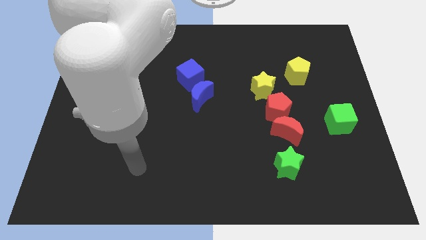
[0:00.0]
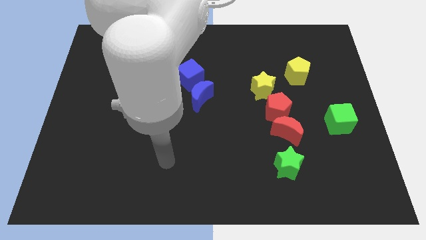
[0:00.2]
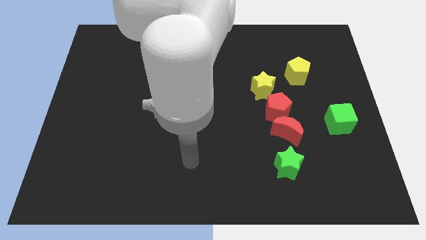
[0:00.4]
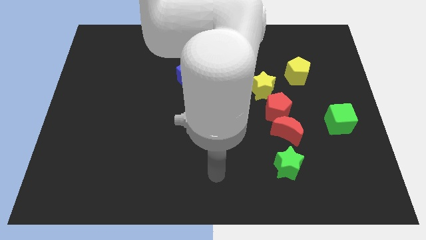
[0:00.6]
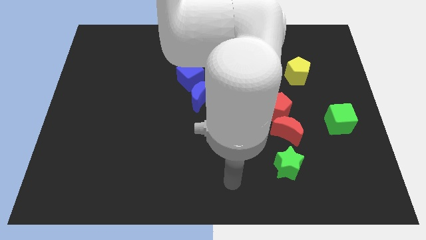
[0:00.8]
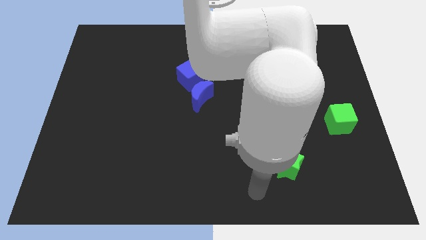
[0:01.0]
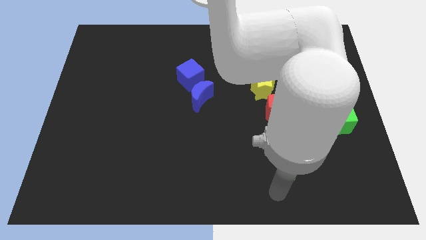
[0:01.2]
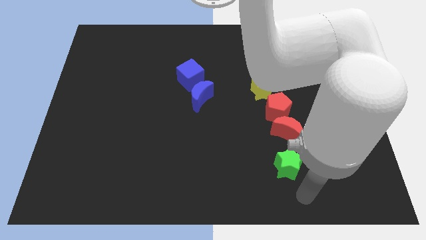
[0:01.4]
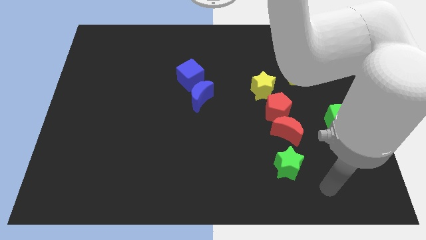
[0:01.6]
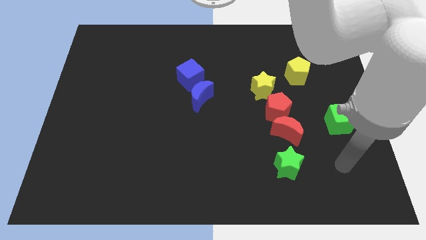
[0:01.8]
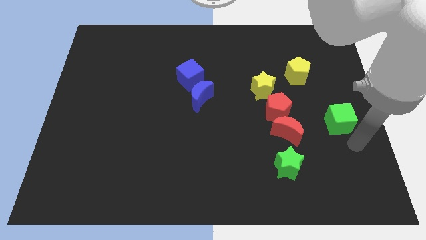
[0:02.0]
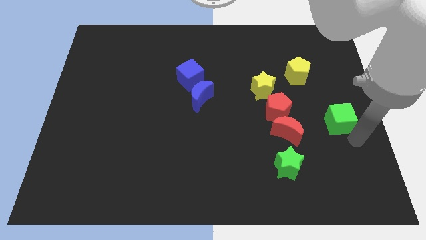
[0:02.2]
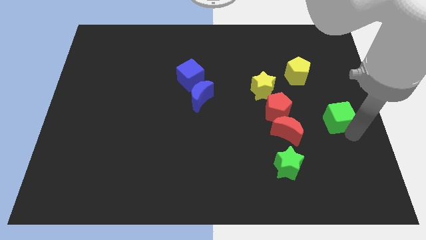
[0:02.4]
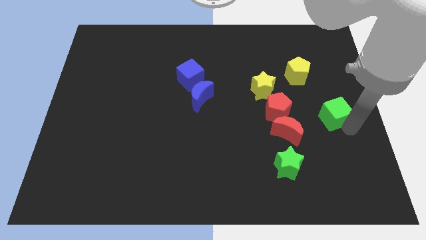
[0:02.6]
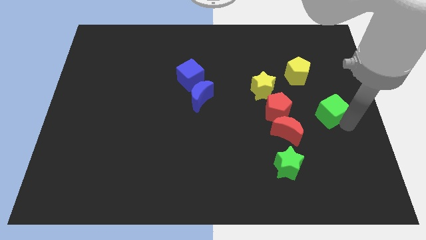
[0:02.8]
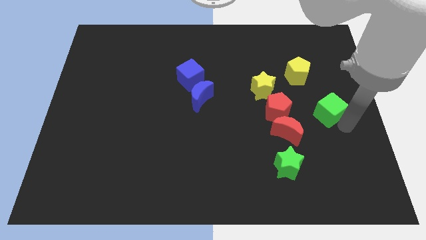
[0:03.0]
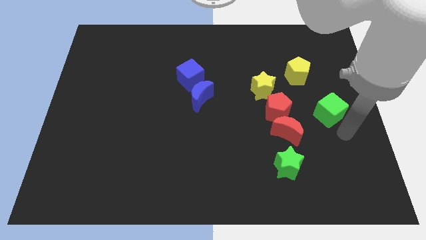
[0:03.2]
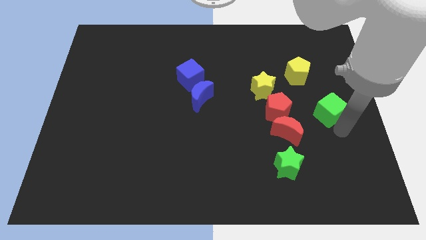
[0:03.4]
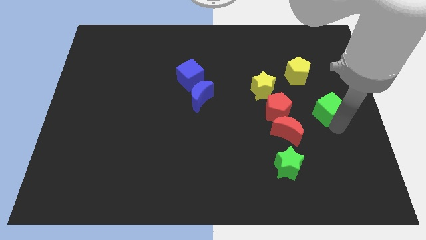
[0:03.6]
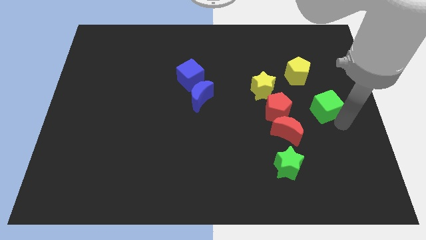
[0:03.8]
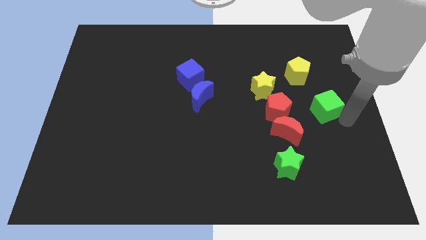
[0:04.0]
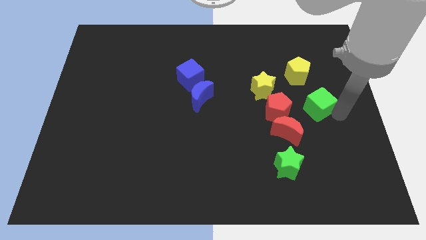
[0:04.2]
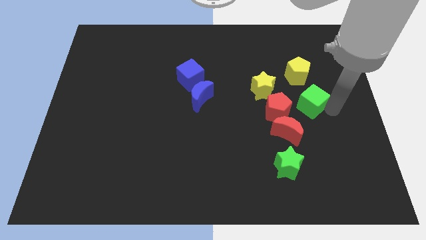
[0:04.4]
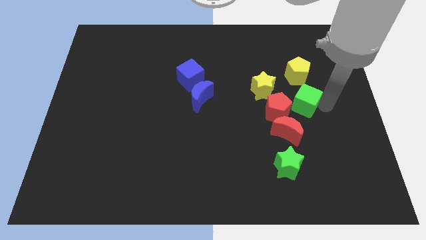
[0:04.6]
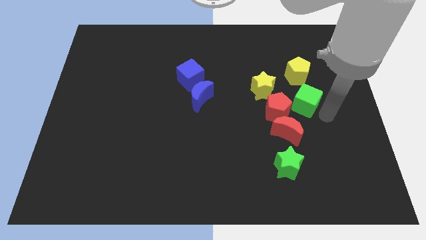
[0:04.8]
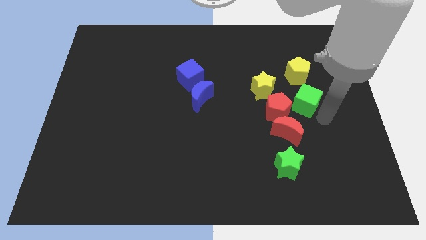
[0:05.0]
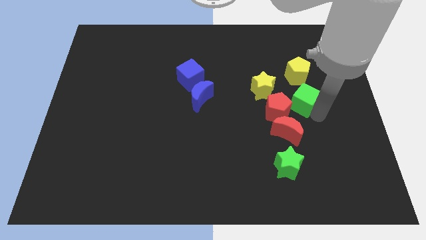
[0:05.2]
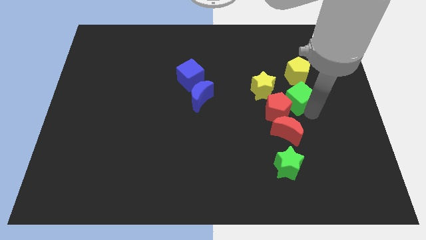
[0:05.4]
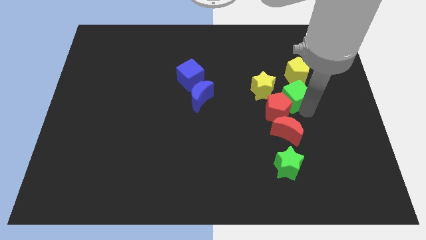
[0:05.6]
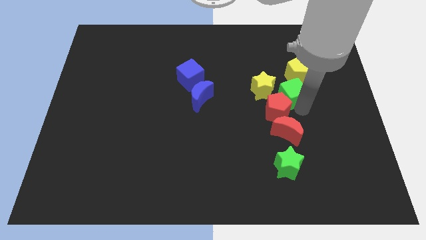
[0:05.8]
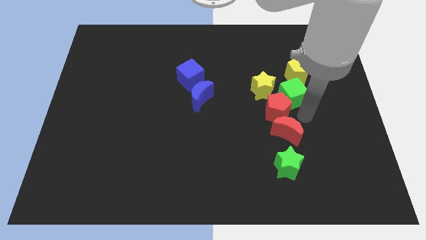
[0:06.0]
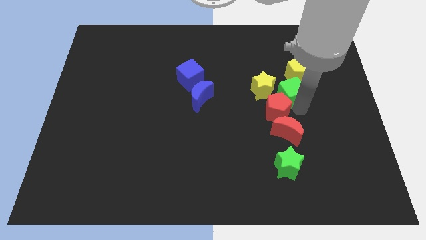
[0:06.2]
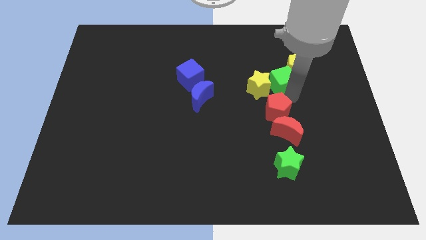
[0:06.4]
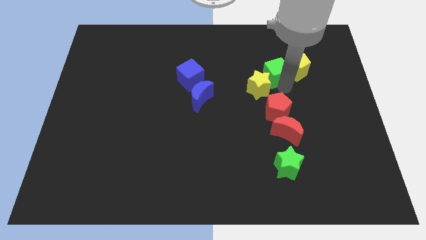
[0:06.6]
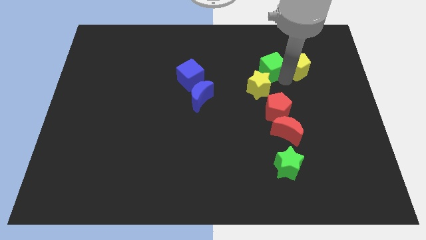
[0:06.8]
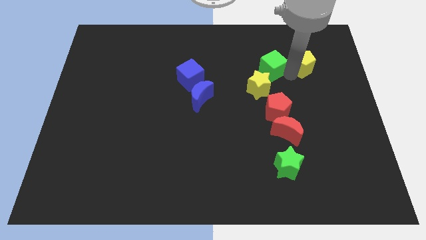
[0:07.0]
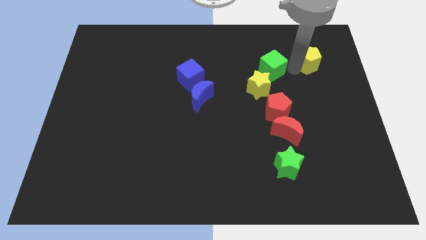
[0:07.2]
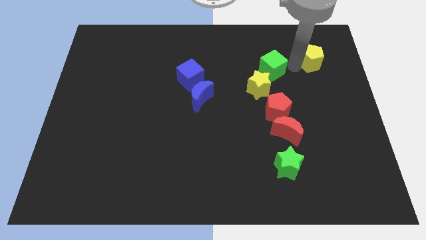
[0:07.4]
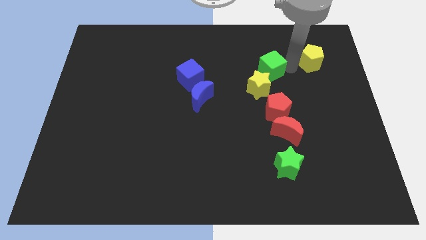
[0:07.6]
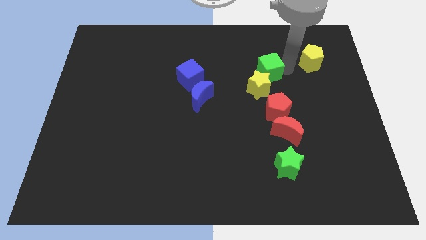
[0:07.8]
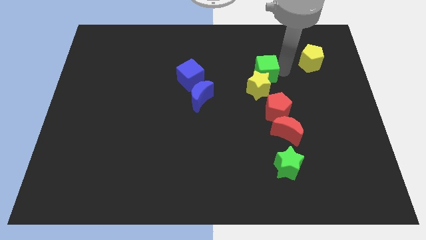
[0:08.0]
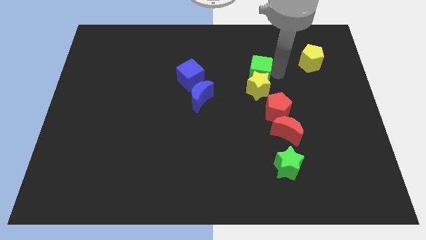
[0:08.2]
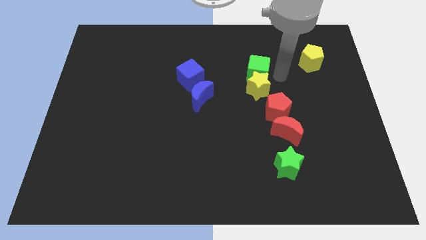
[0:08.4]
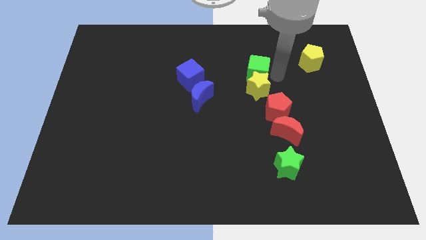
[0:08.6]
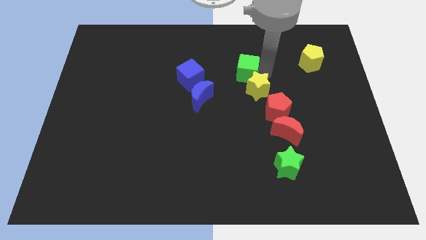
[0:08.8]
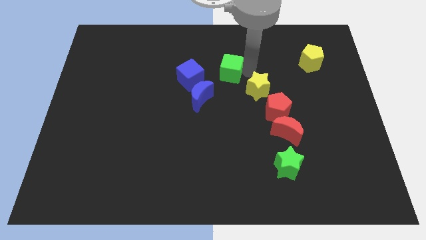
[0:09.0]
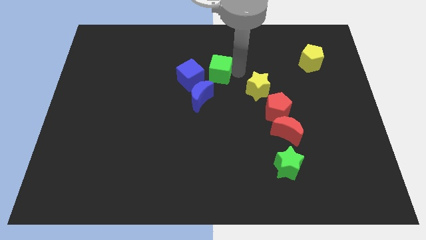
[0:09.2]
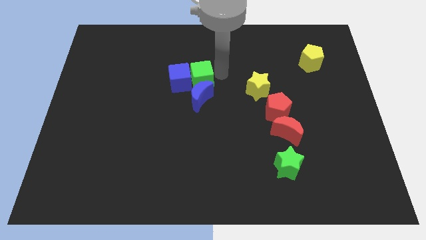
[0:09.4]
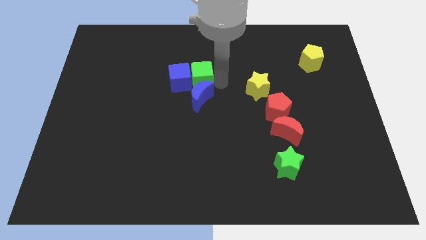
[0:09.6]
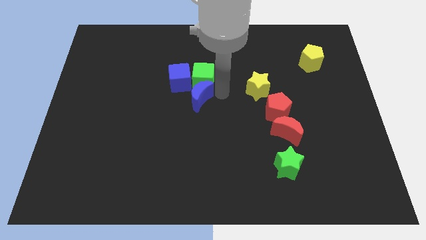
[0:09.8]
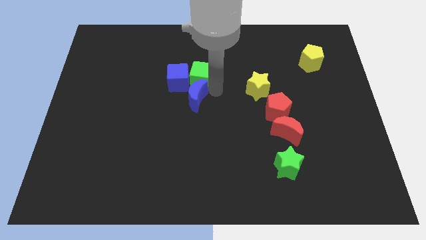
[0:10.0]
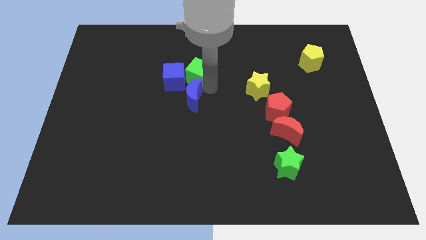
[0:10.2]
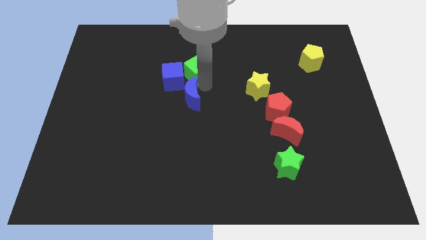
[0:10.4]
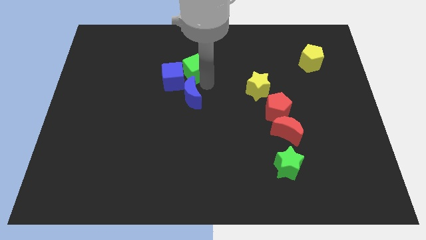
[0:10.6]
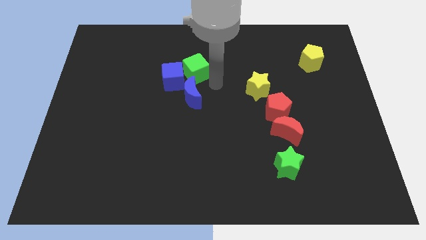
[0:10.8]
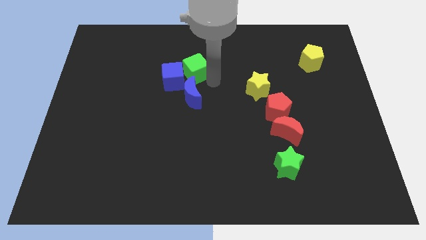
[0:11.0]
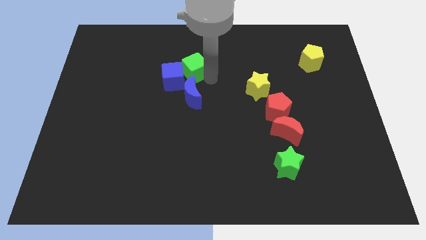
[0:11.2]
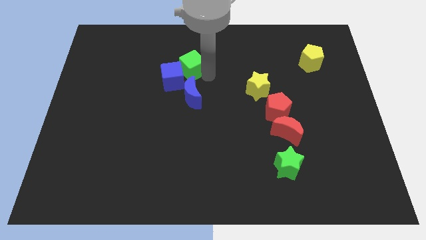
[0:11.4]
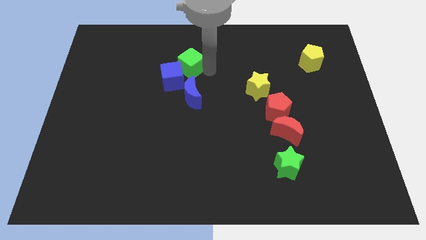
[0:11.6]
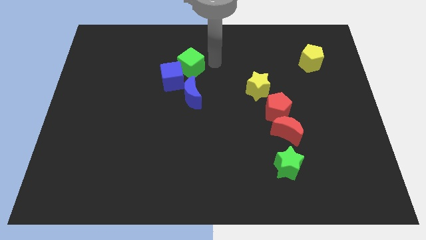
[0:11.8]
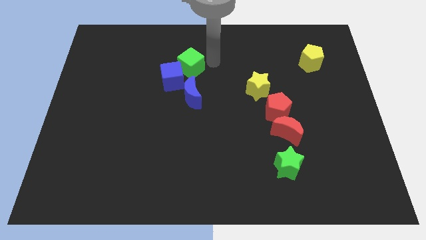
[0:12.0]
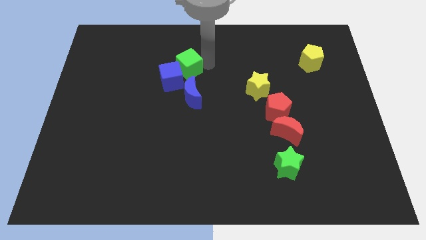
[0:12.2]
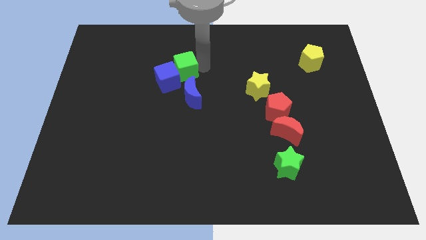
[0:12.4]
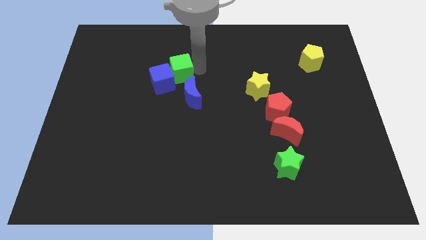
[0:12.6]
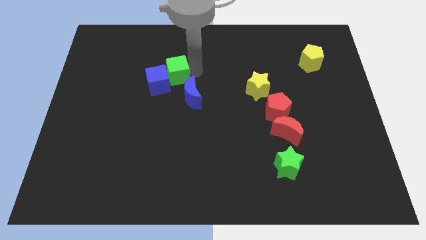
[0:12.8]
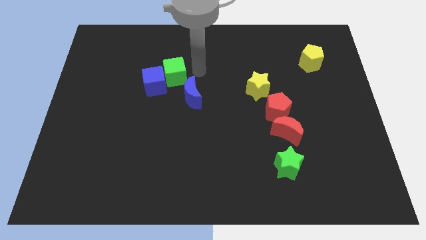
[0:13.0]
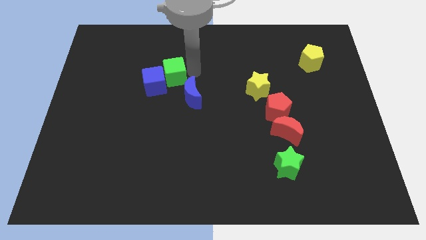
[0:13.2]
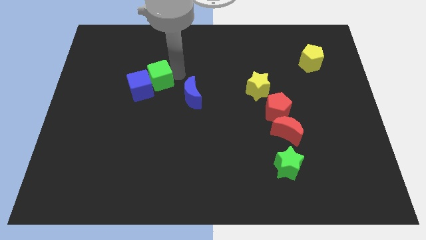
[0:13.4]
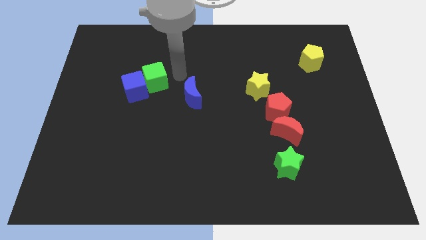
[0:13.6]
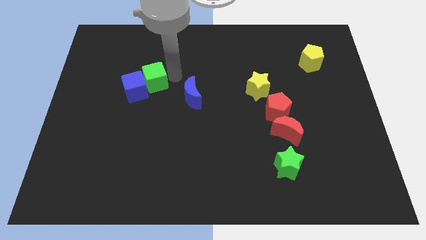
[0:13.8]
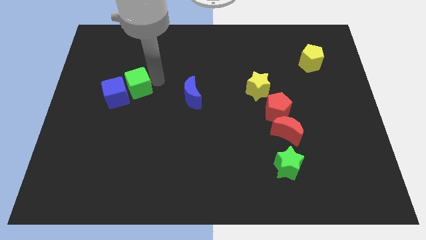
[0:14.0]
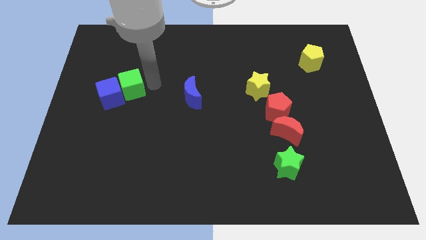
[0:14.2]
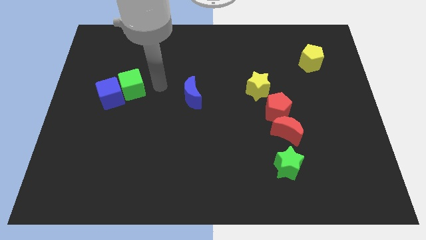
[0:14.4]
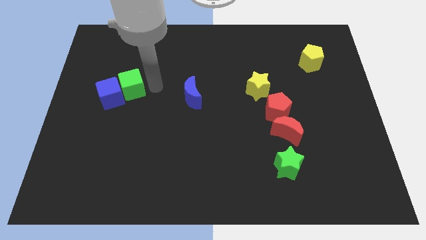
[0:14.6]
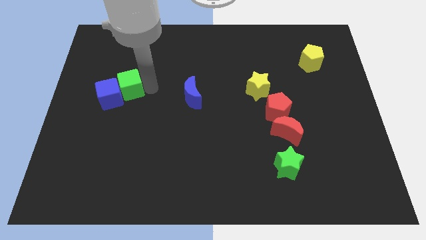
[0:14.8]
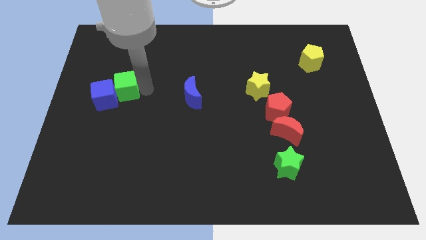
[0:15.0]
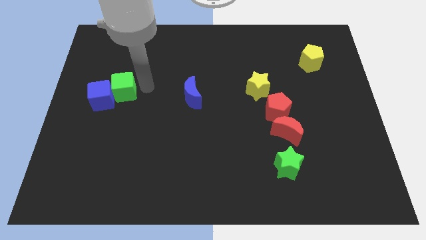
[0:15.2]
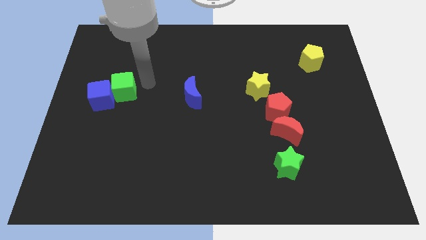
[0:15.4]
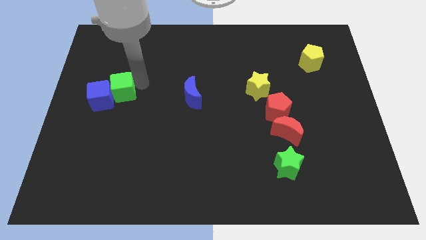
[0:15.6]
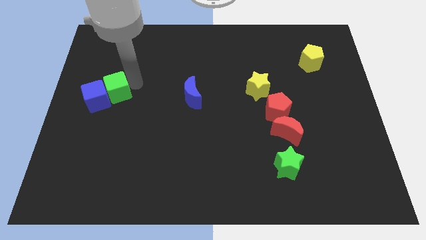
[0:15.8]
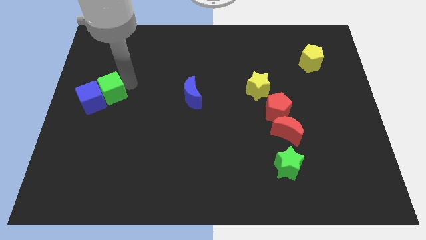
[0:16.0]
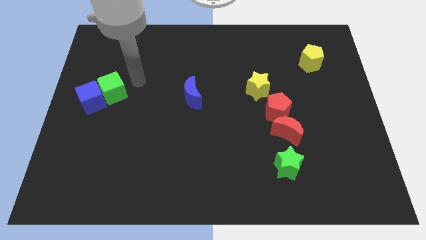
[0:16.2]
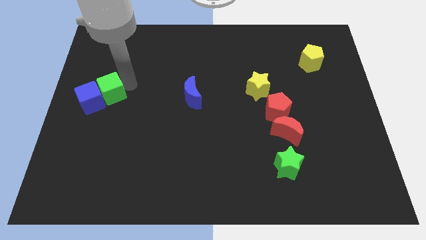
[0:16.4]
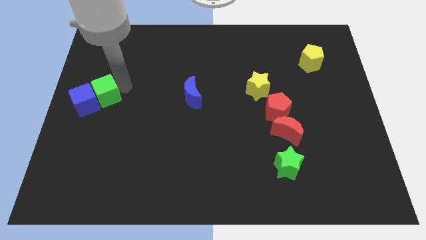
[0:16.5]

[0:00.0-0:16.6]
put the green cube to the left side of the board
